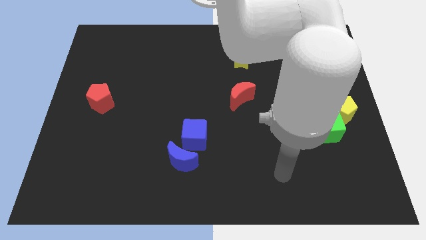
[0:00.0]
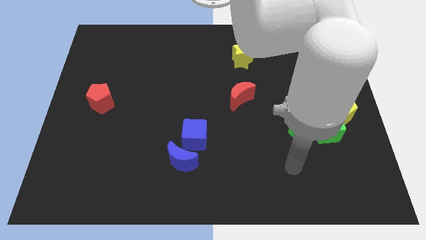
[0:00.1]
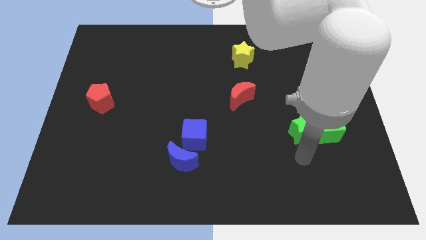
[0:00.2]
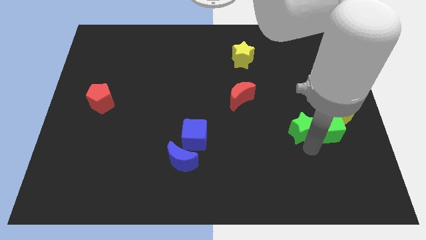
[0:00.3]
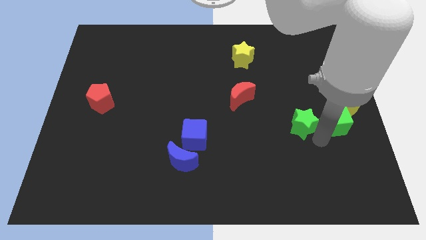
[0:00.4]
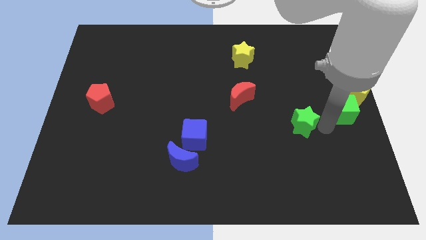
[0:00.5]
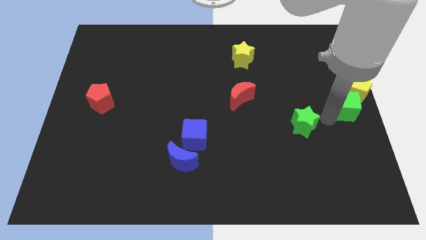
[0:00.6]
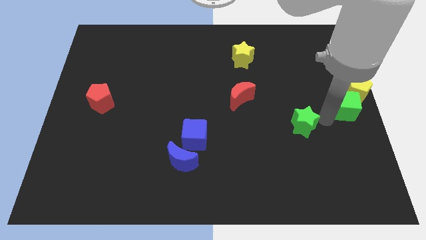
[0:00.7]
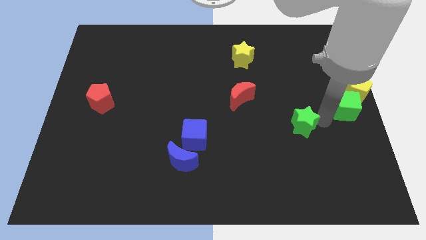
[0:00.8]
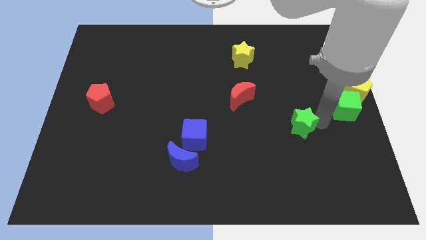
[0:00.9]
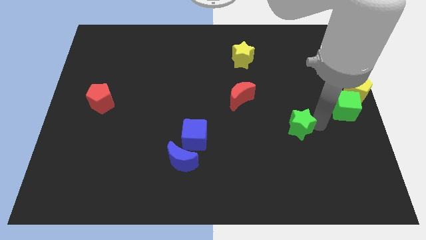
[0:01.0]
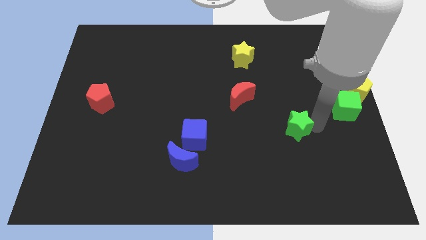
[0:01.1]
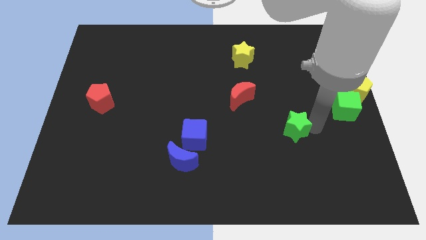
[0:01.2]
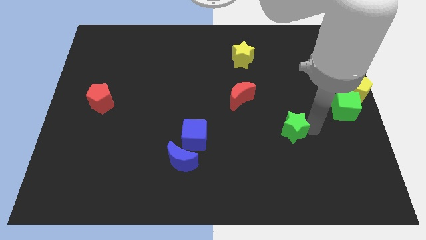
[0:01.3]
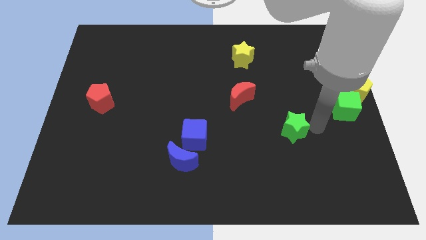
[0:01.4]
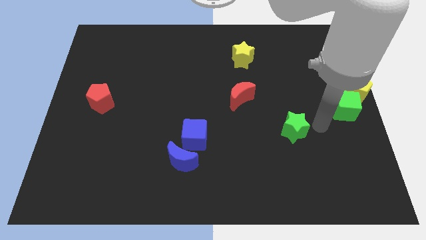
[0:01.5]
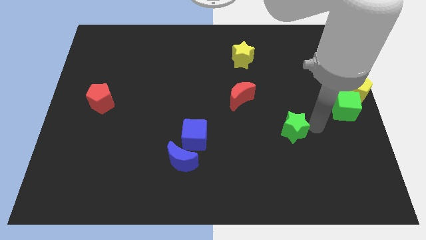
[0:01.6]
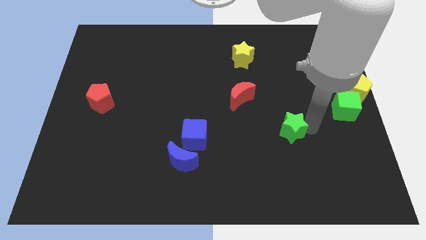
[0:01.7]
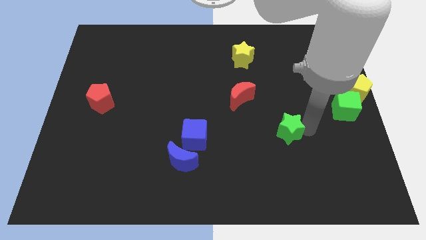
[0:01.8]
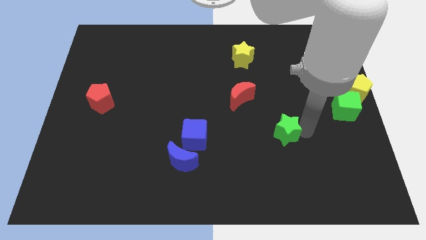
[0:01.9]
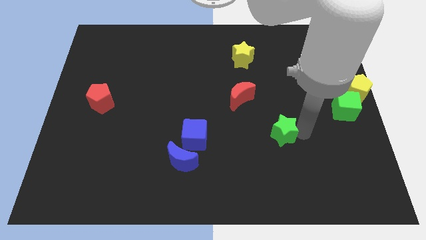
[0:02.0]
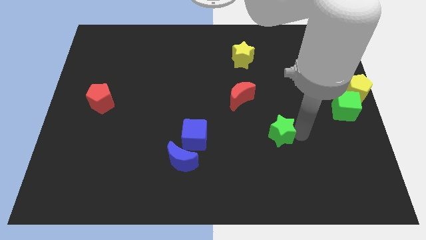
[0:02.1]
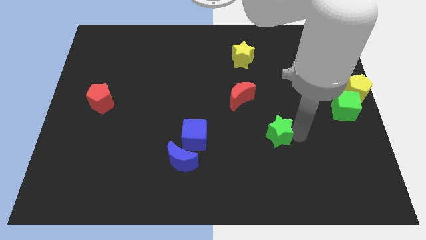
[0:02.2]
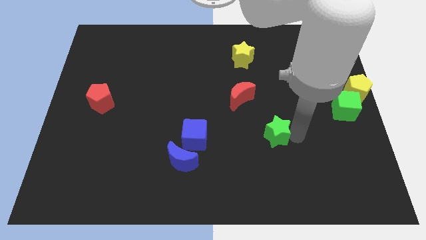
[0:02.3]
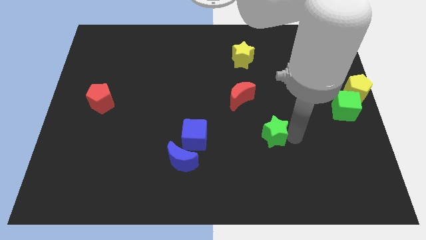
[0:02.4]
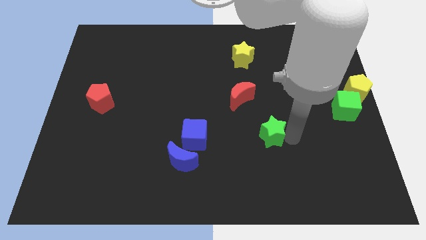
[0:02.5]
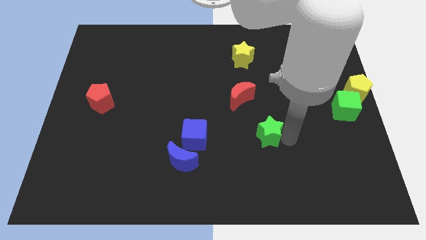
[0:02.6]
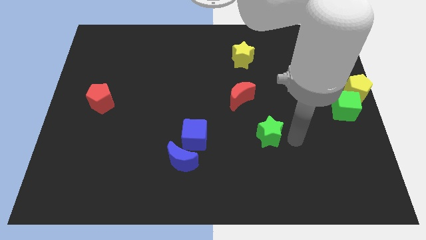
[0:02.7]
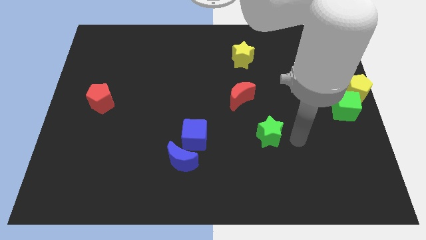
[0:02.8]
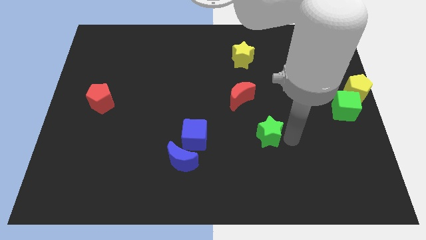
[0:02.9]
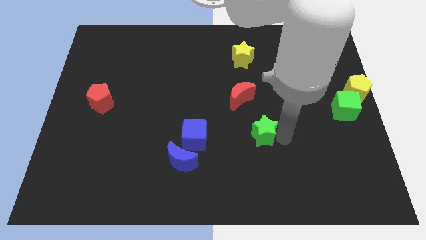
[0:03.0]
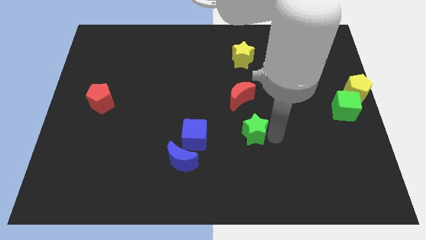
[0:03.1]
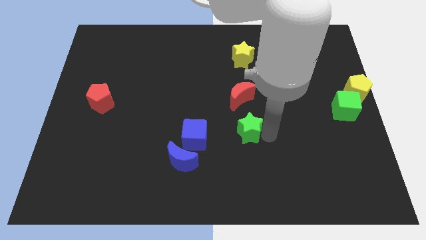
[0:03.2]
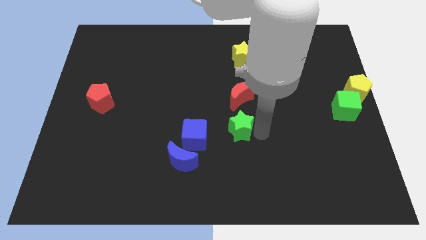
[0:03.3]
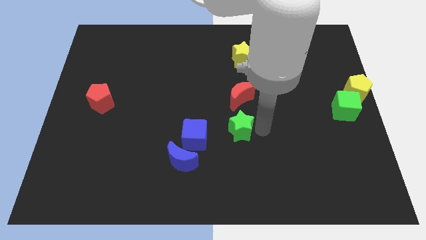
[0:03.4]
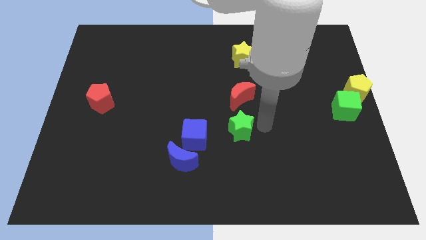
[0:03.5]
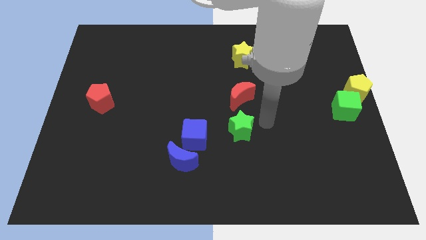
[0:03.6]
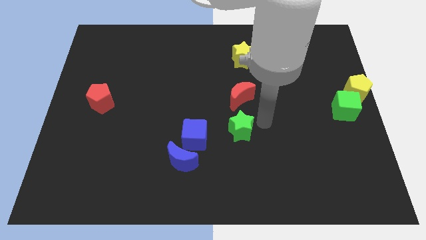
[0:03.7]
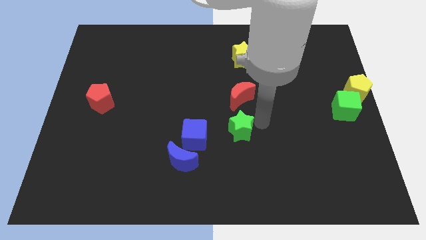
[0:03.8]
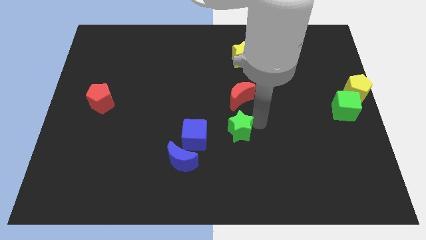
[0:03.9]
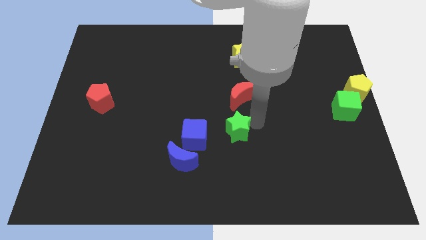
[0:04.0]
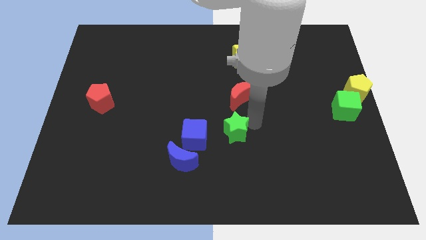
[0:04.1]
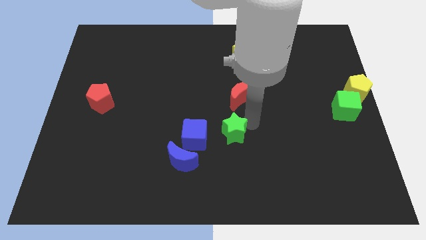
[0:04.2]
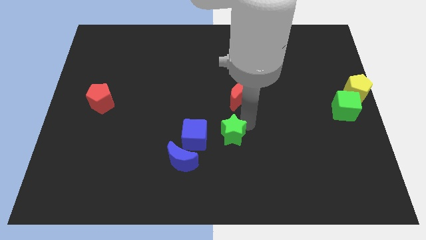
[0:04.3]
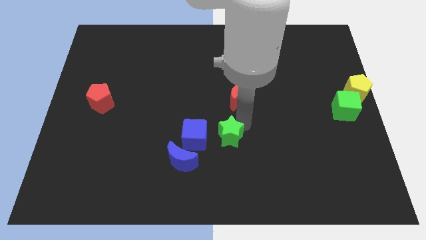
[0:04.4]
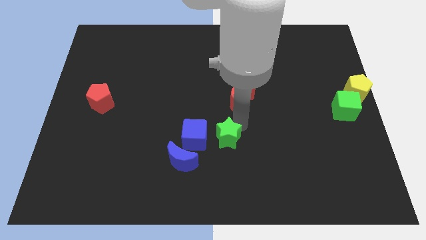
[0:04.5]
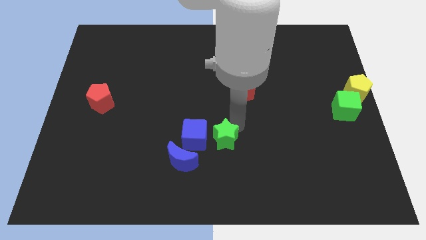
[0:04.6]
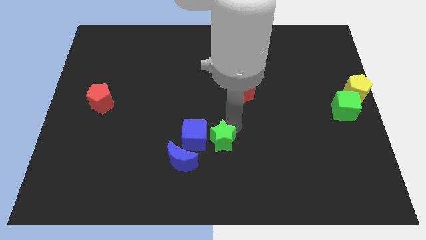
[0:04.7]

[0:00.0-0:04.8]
push the green star towards the blue cube

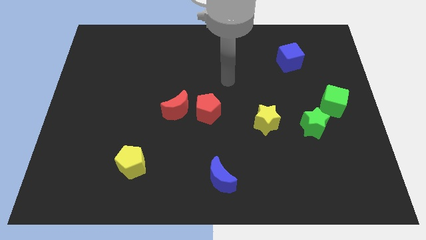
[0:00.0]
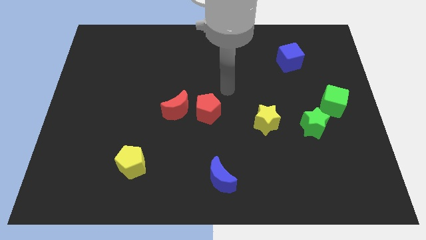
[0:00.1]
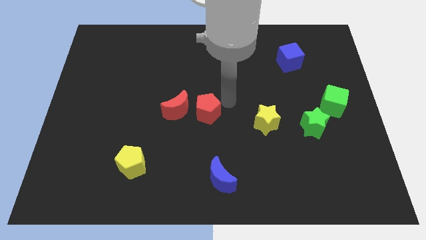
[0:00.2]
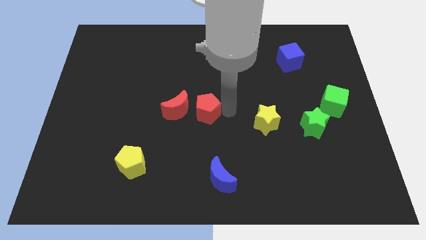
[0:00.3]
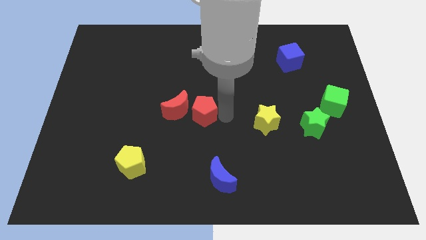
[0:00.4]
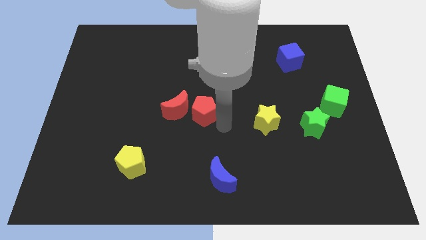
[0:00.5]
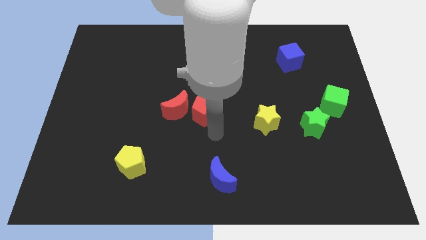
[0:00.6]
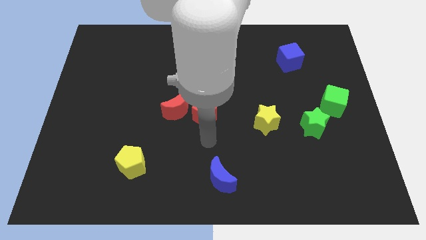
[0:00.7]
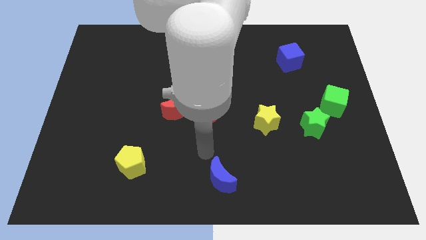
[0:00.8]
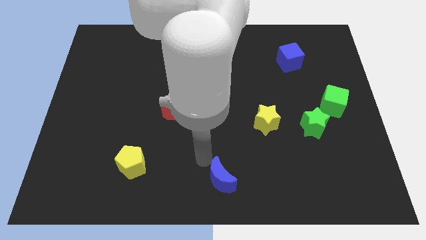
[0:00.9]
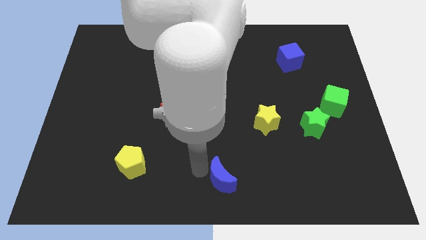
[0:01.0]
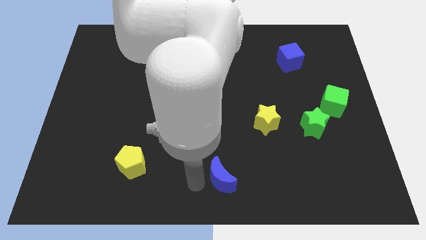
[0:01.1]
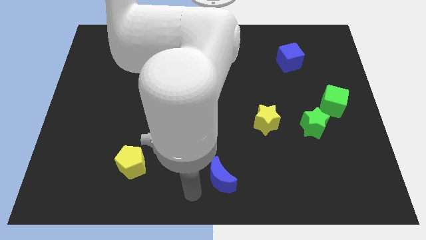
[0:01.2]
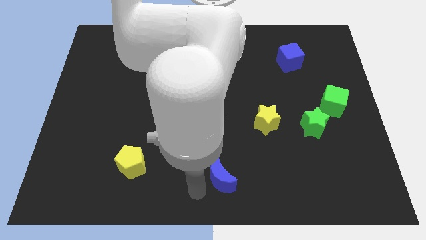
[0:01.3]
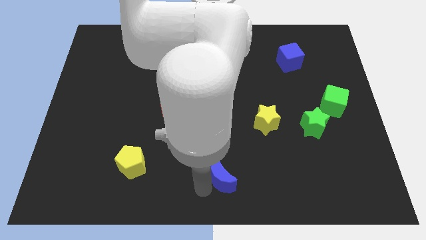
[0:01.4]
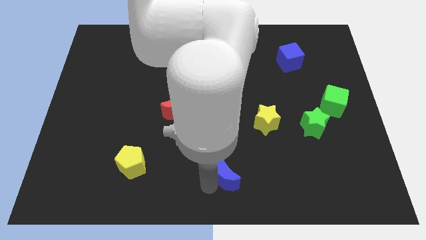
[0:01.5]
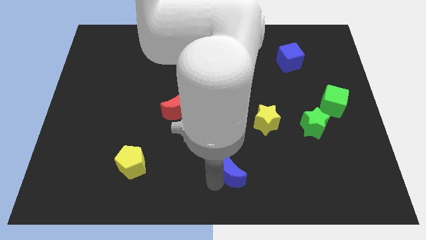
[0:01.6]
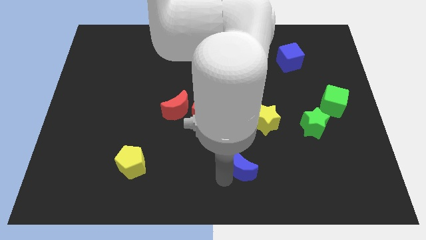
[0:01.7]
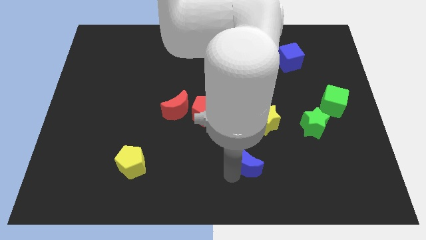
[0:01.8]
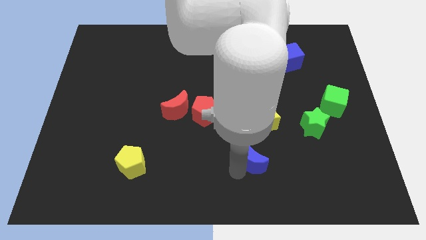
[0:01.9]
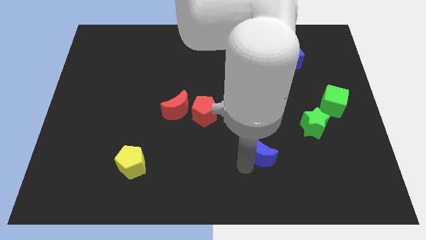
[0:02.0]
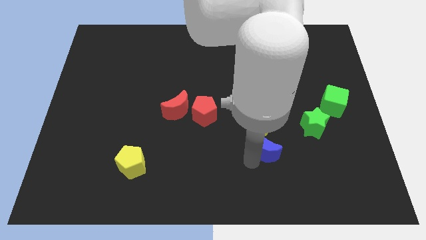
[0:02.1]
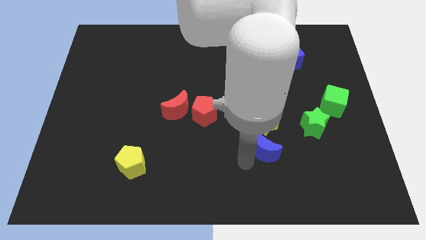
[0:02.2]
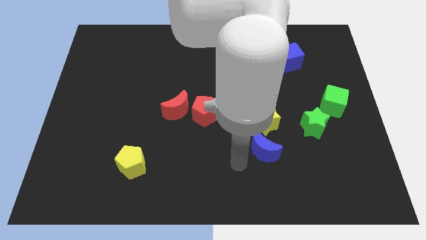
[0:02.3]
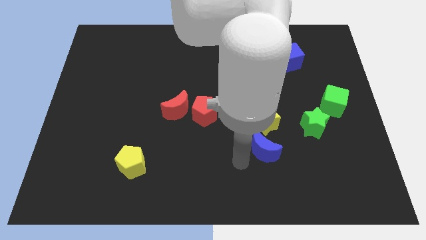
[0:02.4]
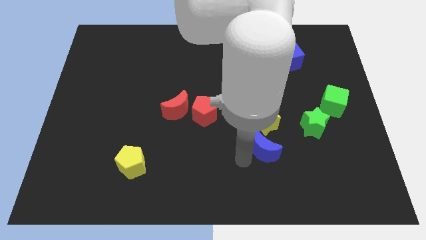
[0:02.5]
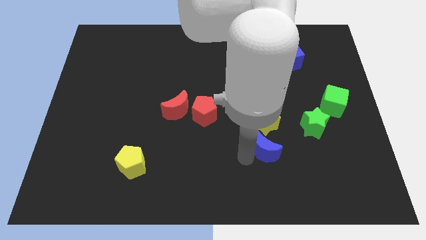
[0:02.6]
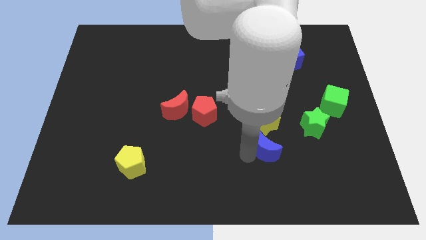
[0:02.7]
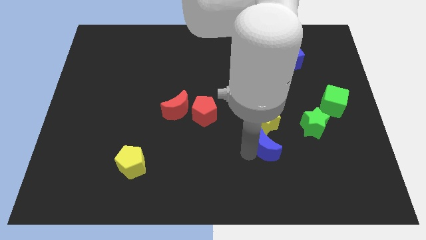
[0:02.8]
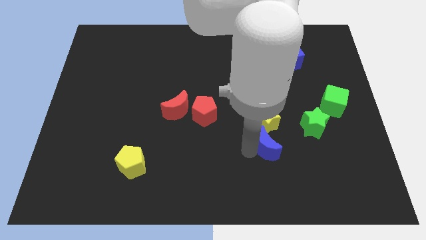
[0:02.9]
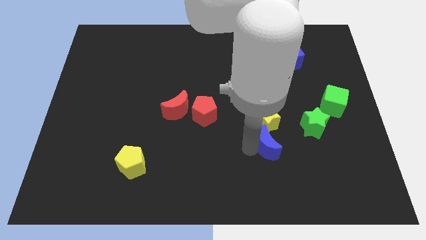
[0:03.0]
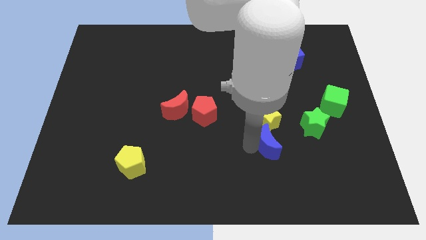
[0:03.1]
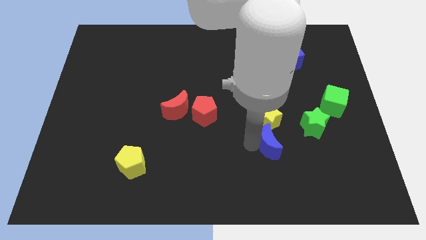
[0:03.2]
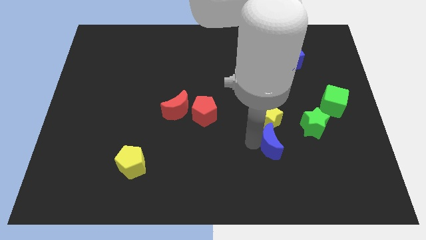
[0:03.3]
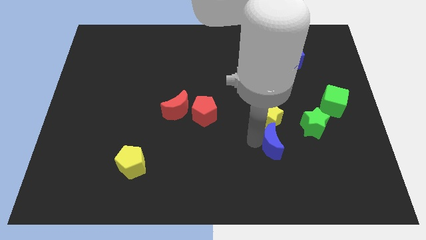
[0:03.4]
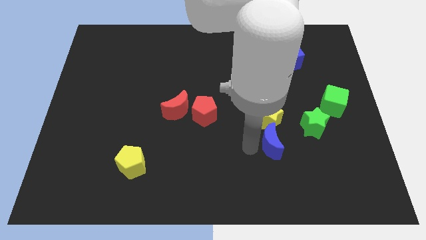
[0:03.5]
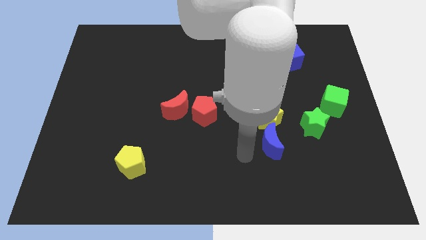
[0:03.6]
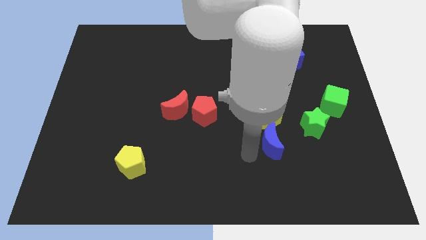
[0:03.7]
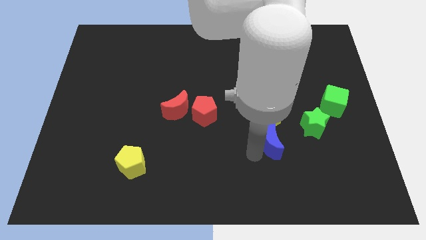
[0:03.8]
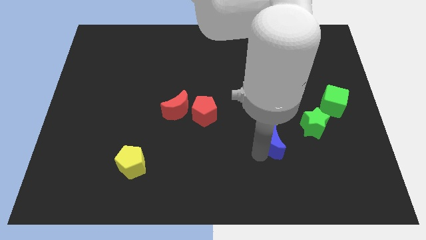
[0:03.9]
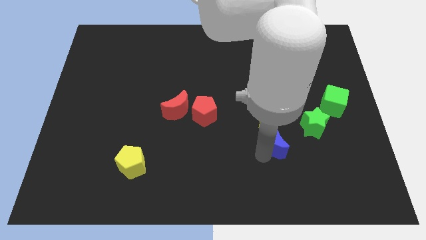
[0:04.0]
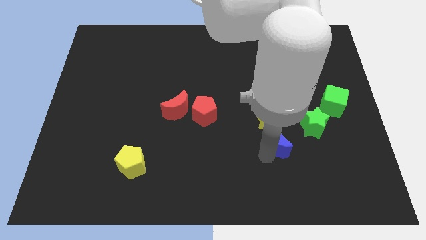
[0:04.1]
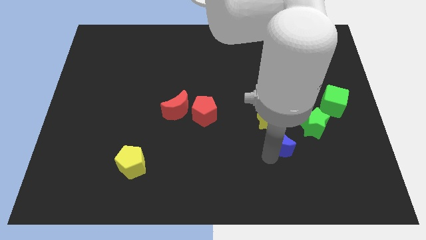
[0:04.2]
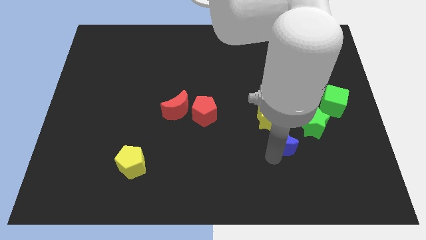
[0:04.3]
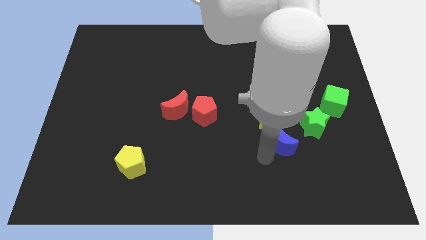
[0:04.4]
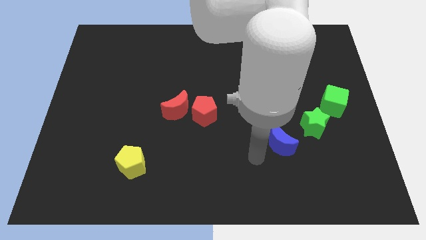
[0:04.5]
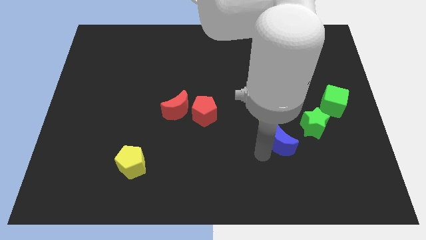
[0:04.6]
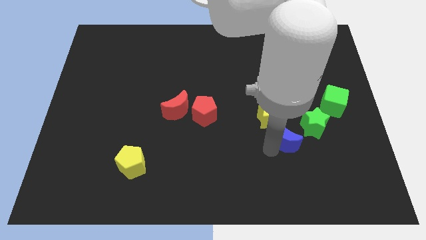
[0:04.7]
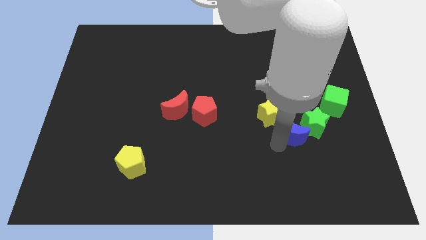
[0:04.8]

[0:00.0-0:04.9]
slide the blue moon close to the green star
